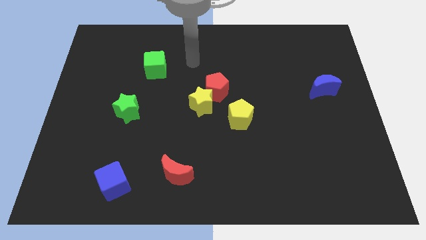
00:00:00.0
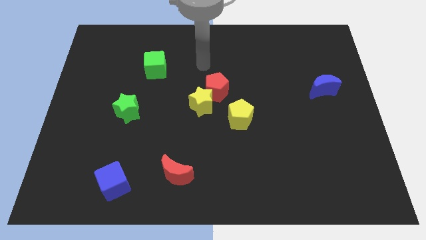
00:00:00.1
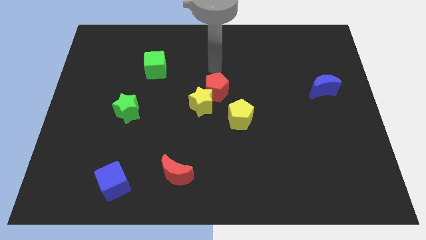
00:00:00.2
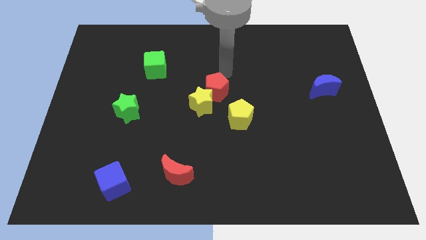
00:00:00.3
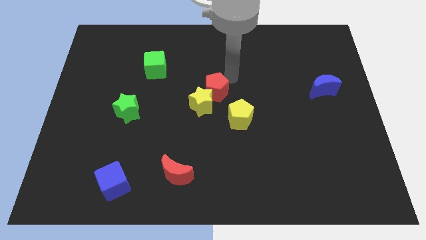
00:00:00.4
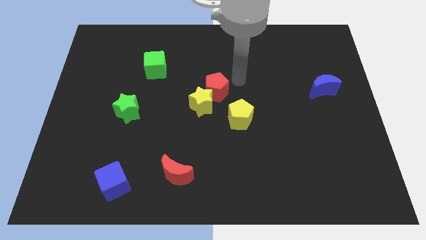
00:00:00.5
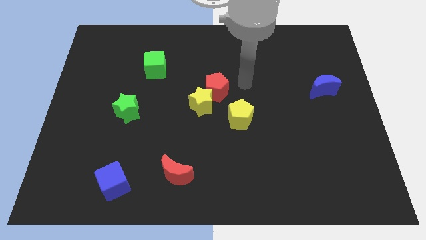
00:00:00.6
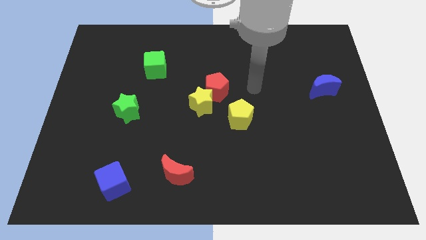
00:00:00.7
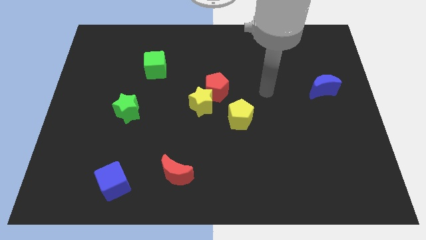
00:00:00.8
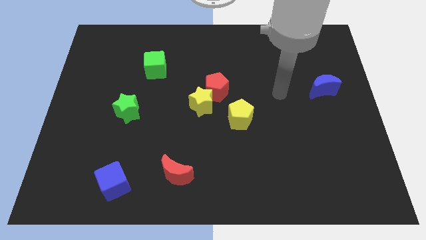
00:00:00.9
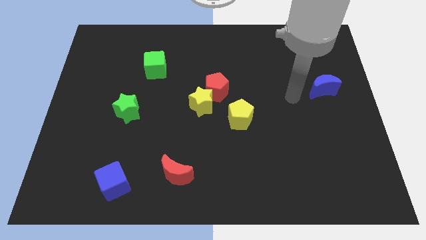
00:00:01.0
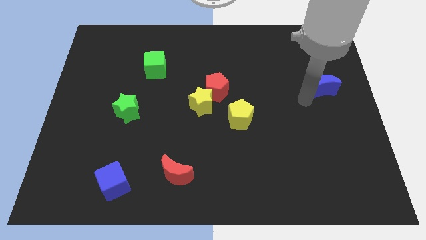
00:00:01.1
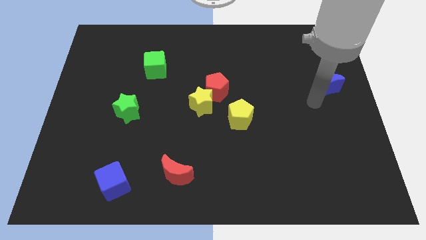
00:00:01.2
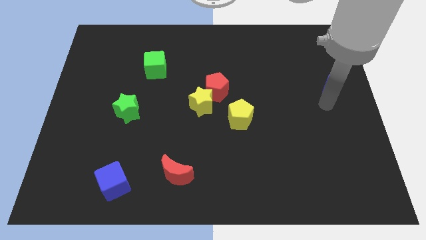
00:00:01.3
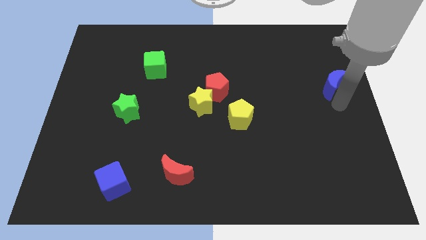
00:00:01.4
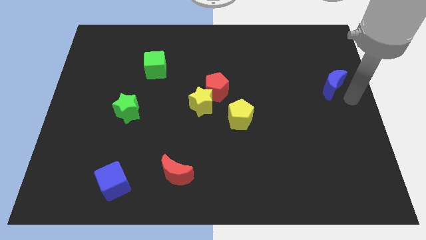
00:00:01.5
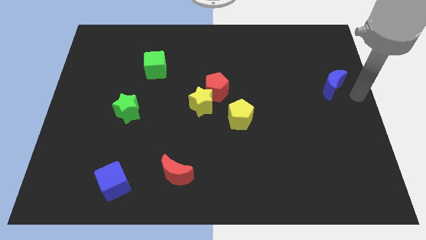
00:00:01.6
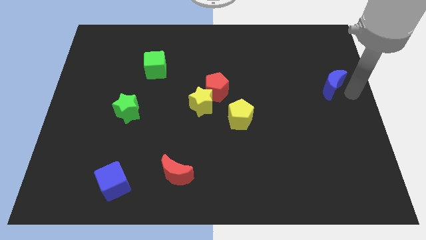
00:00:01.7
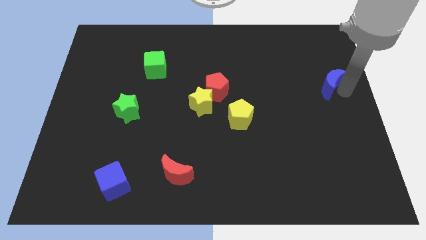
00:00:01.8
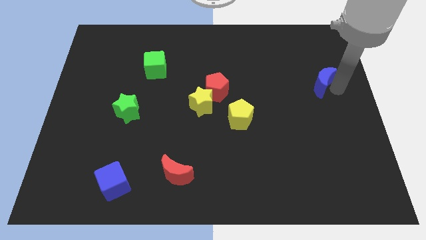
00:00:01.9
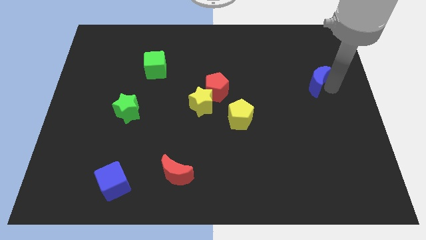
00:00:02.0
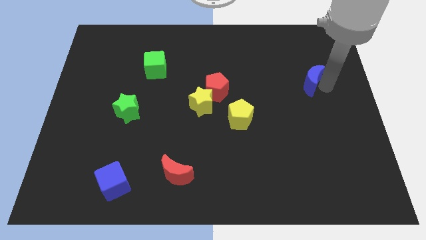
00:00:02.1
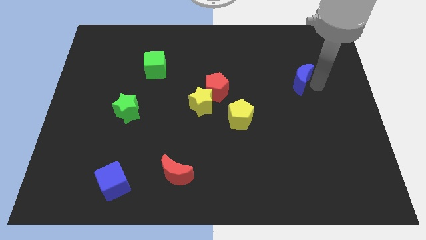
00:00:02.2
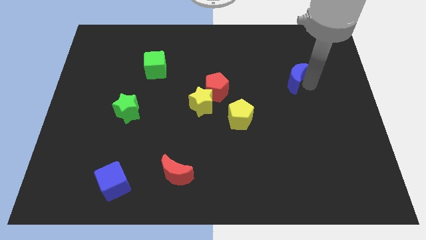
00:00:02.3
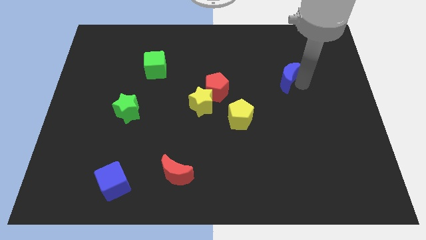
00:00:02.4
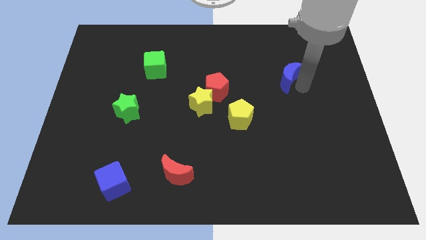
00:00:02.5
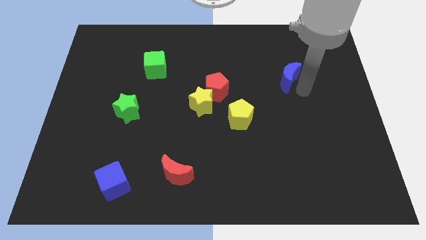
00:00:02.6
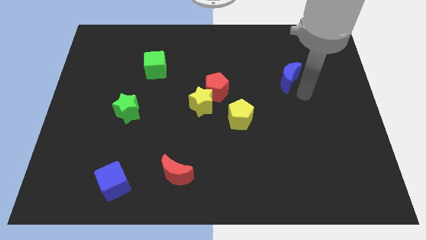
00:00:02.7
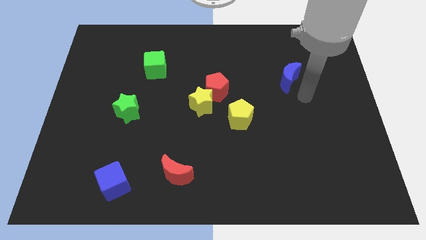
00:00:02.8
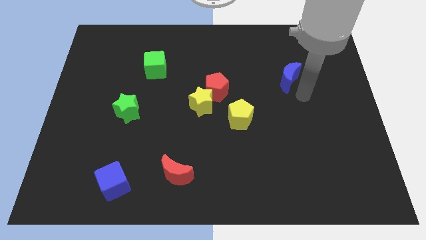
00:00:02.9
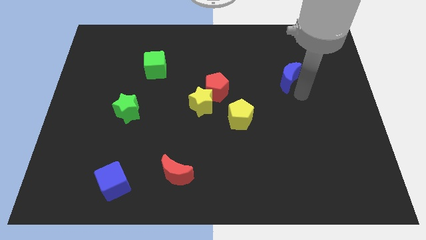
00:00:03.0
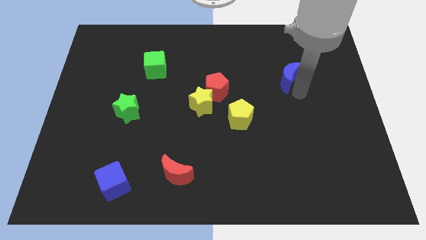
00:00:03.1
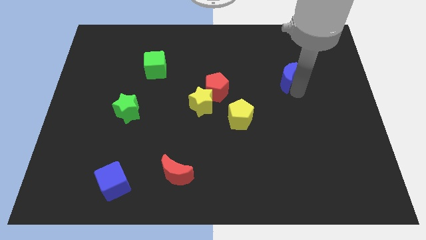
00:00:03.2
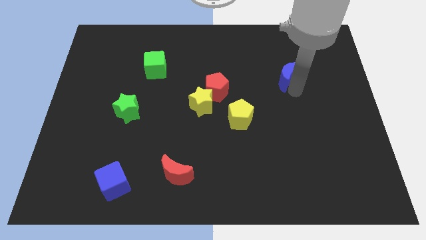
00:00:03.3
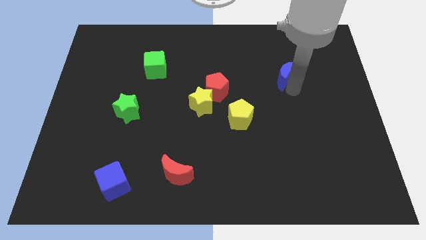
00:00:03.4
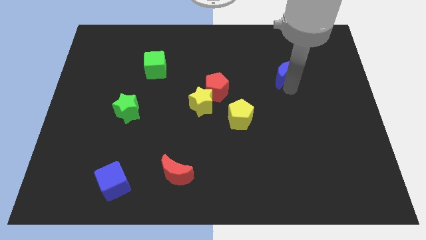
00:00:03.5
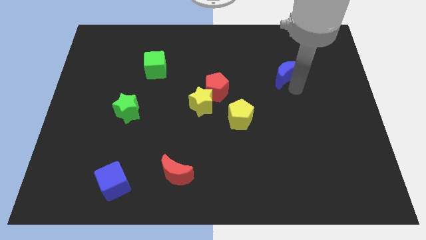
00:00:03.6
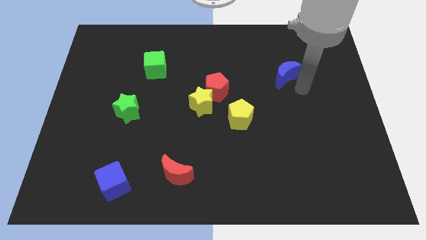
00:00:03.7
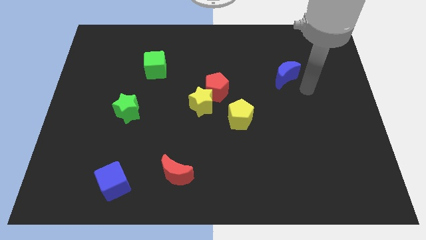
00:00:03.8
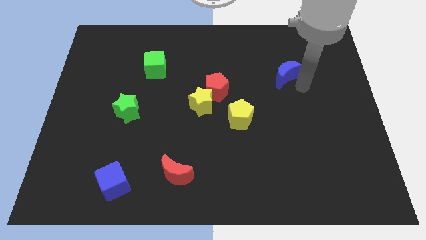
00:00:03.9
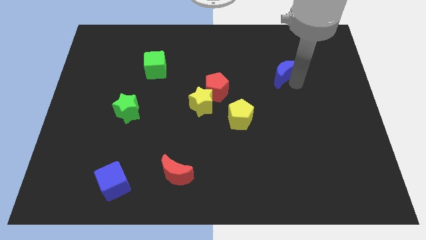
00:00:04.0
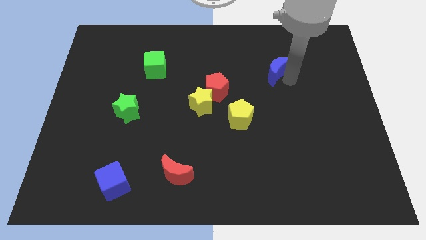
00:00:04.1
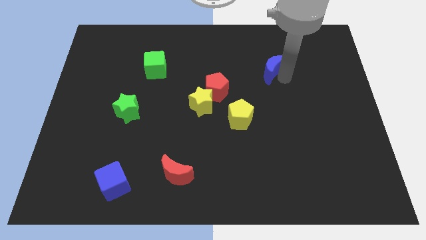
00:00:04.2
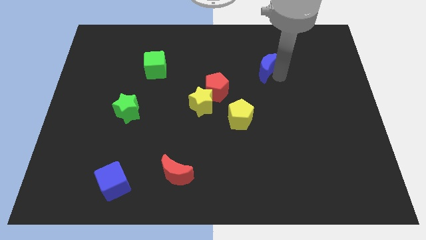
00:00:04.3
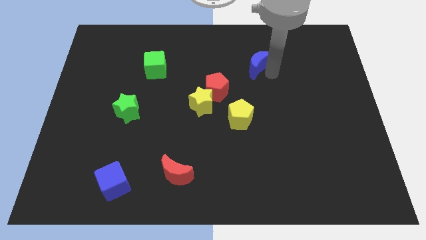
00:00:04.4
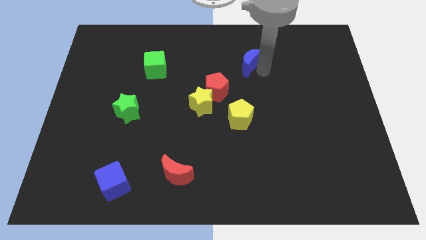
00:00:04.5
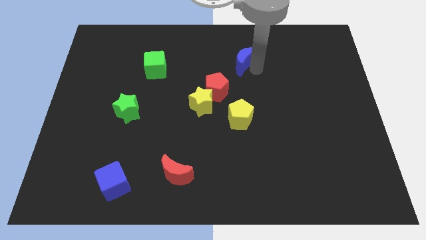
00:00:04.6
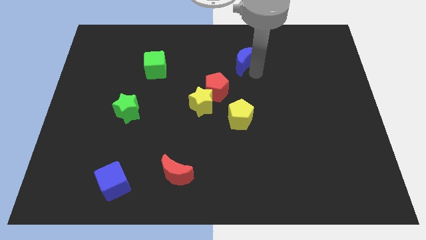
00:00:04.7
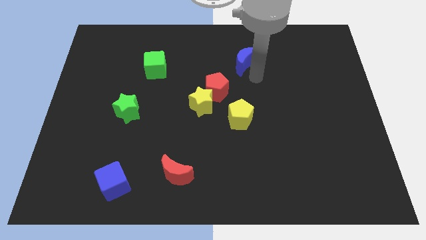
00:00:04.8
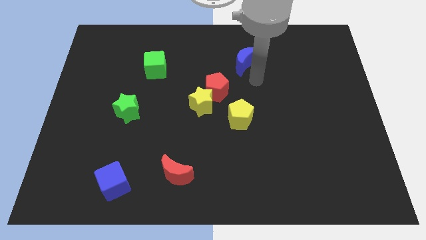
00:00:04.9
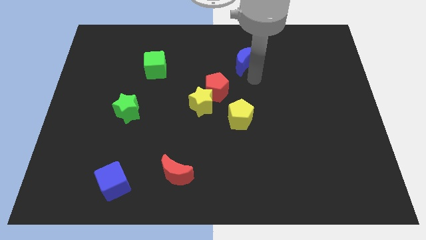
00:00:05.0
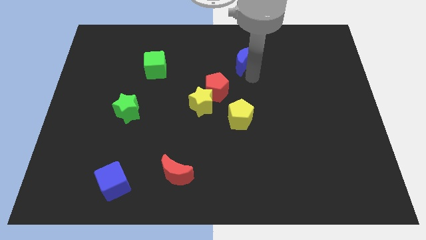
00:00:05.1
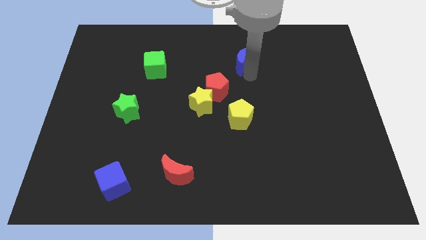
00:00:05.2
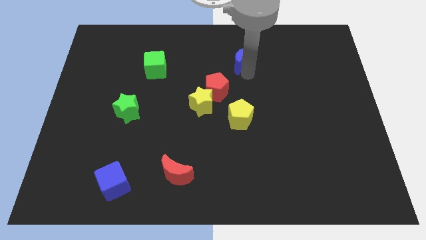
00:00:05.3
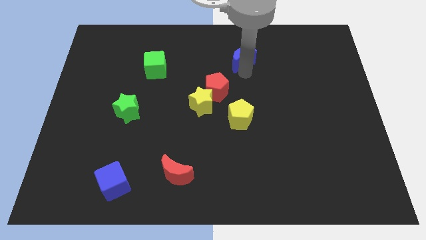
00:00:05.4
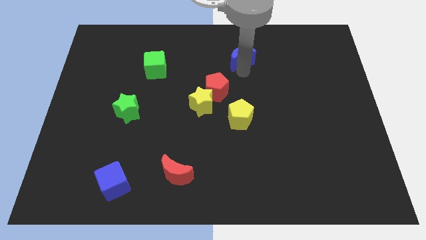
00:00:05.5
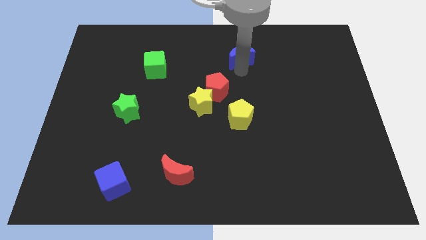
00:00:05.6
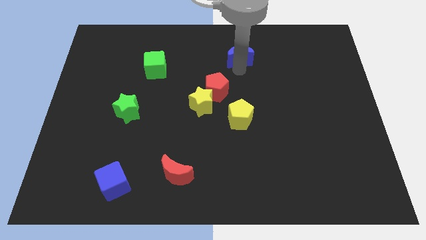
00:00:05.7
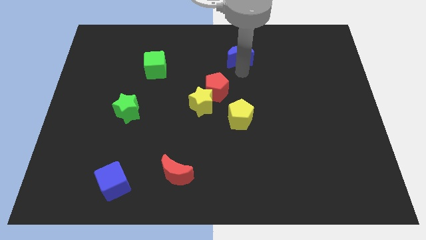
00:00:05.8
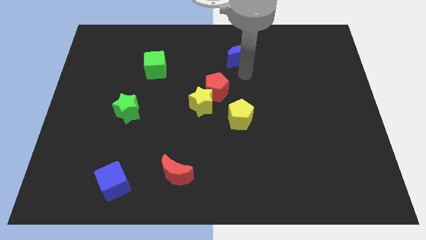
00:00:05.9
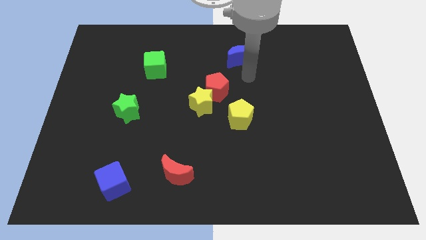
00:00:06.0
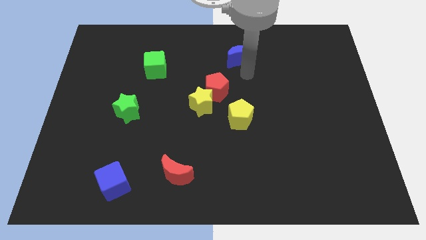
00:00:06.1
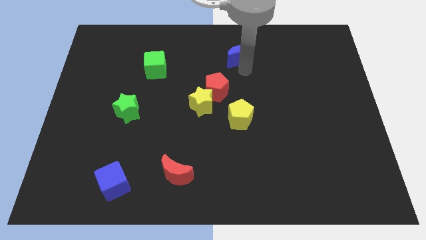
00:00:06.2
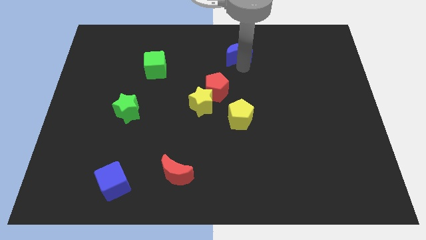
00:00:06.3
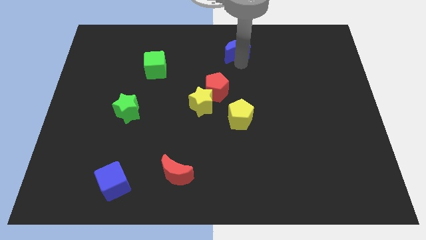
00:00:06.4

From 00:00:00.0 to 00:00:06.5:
slide the blue moon to the towards your base
